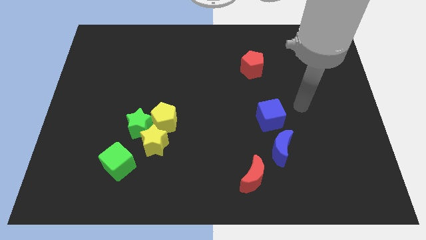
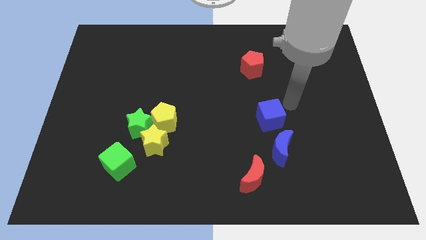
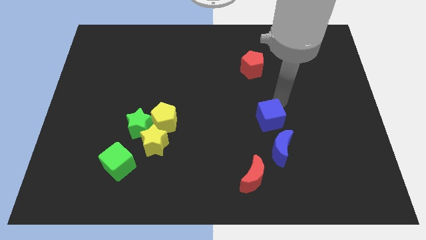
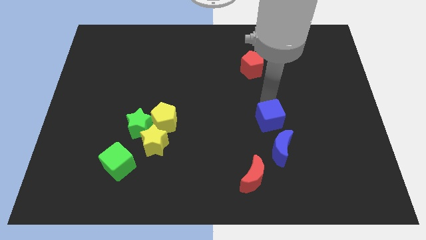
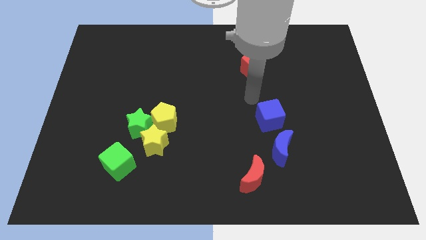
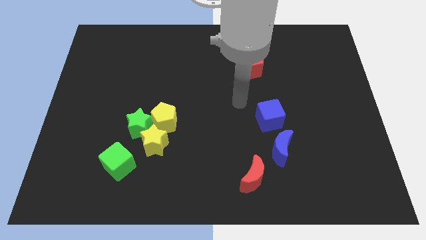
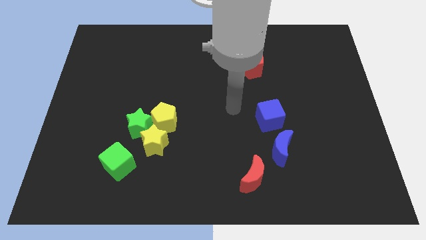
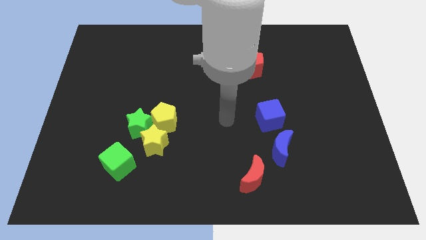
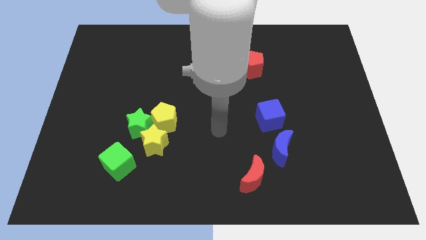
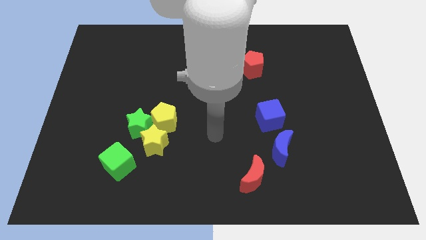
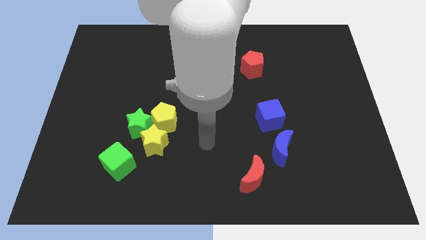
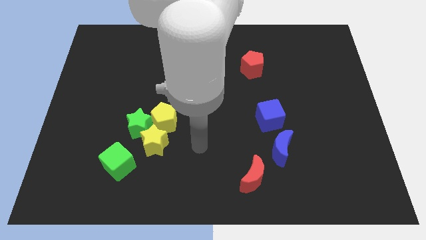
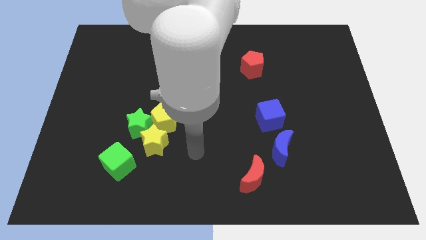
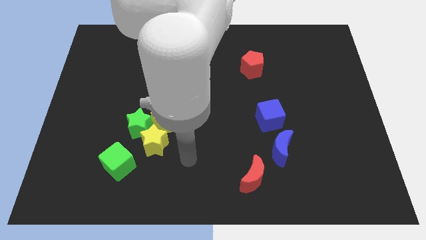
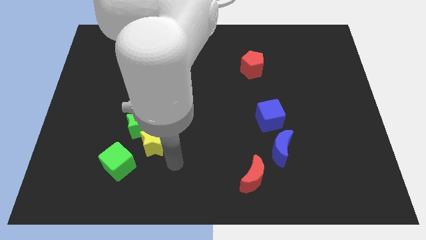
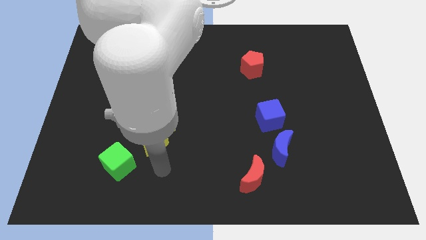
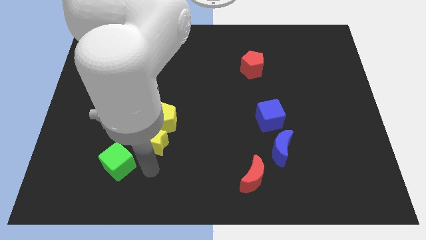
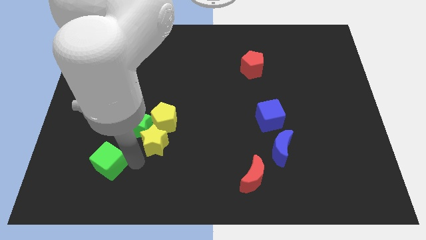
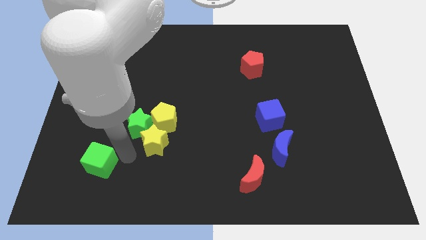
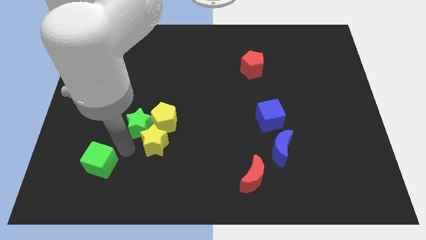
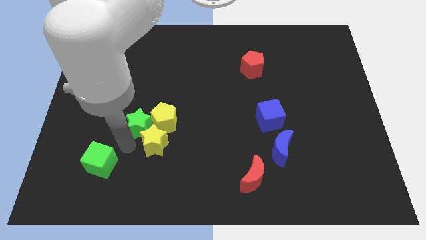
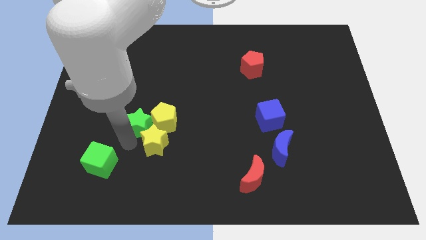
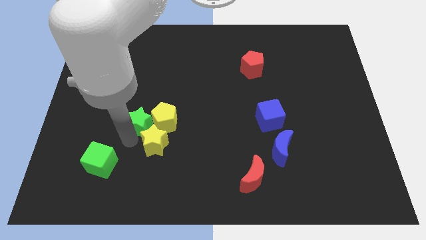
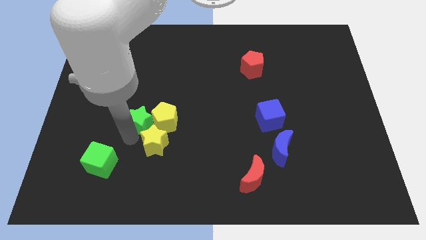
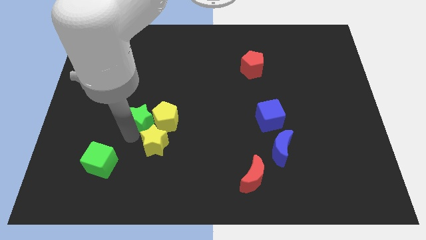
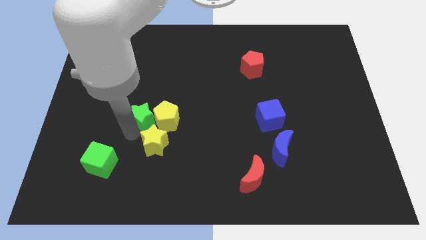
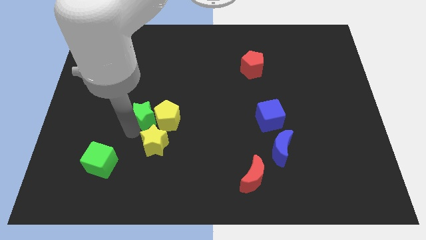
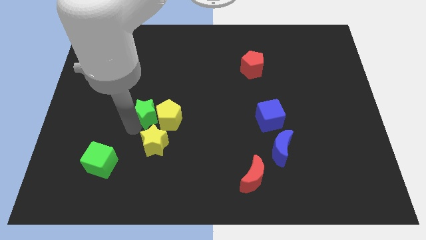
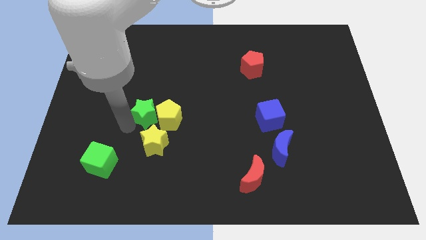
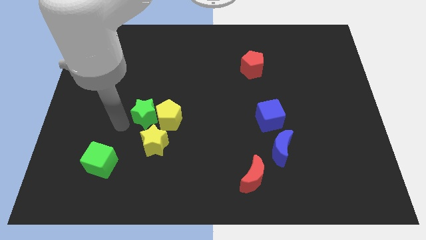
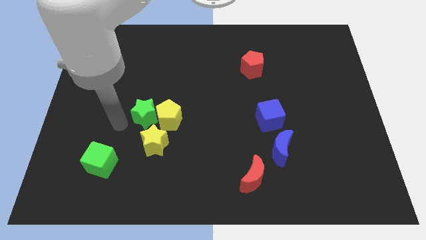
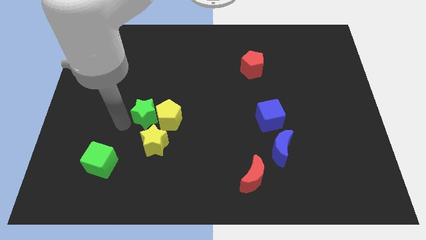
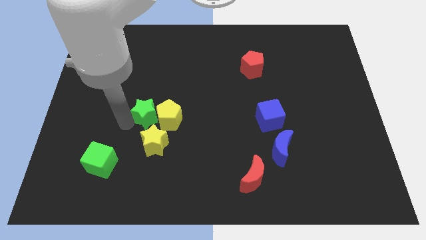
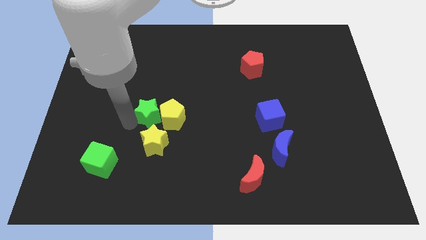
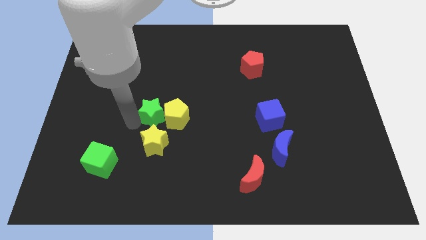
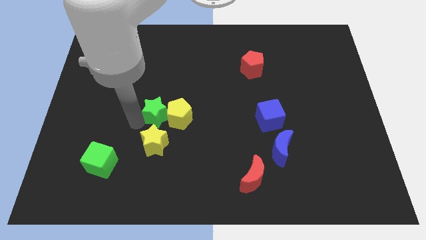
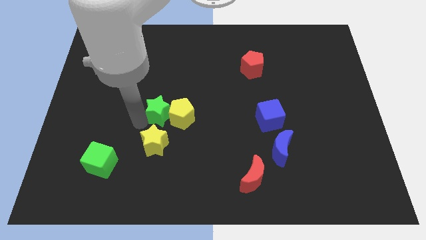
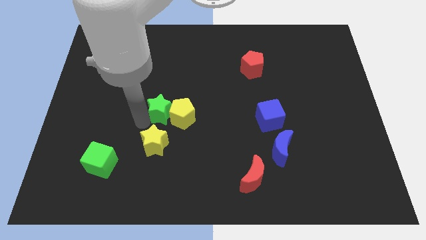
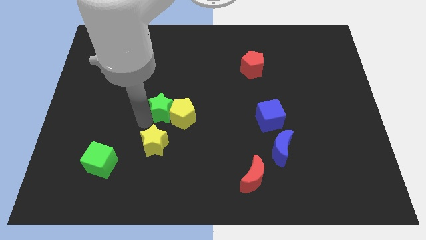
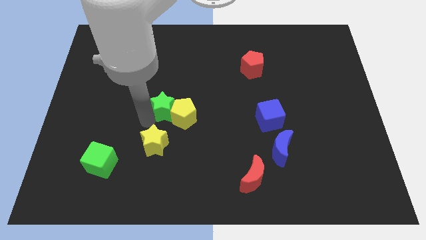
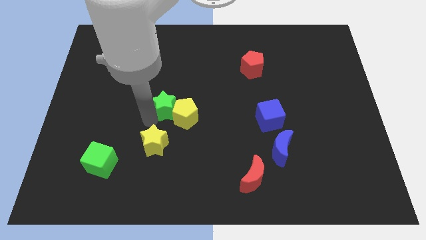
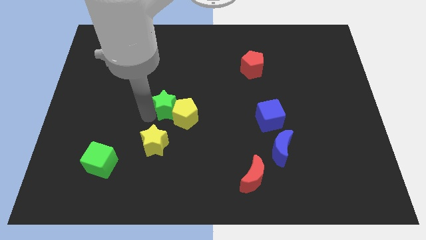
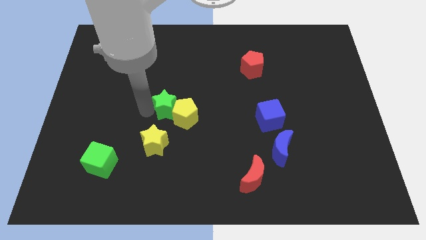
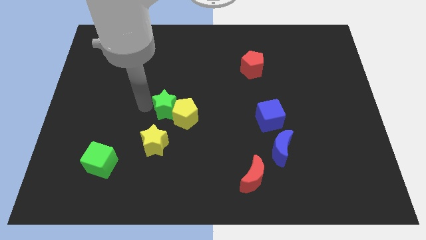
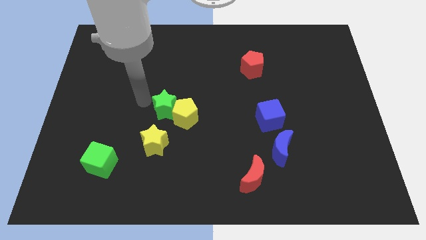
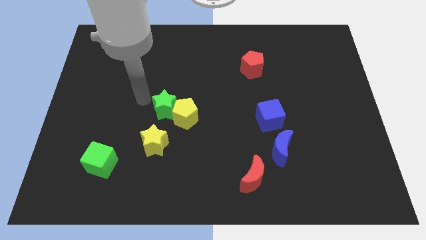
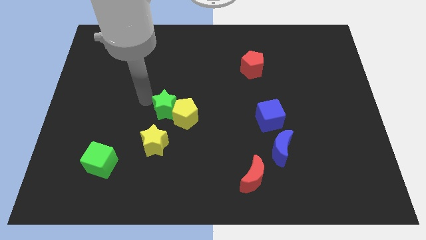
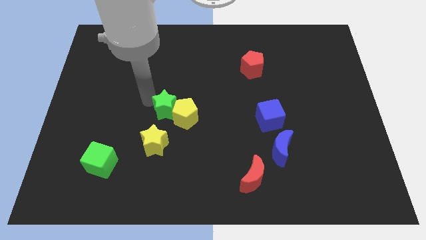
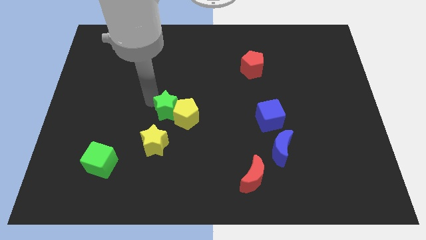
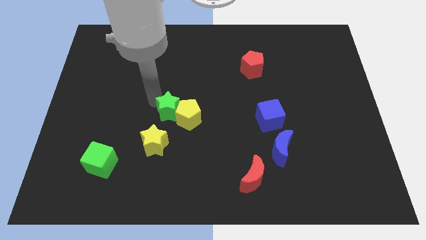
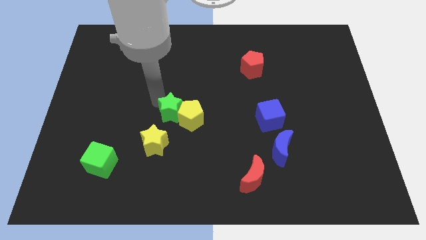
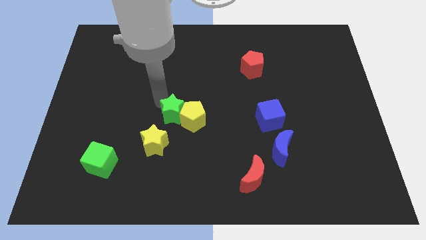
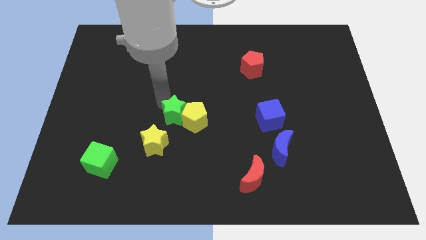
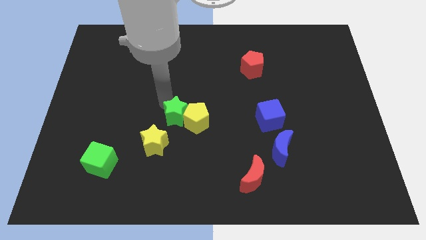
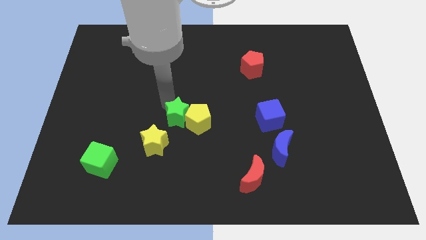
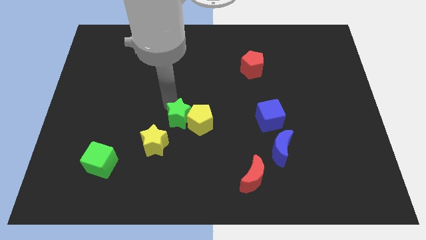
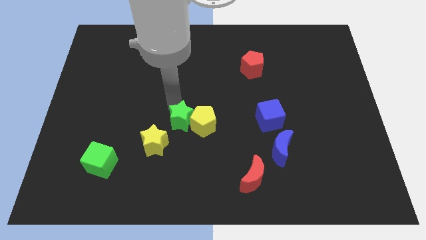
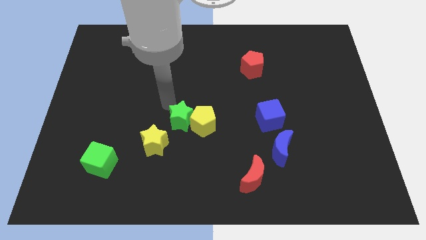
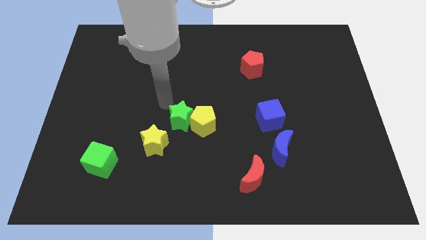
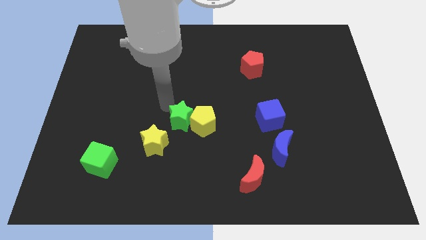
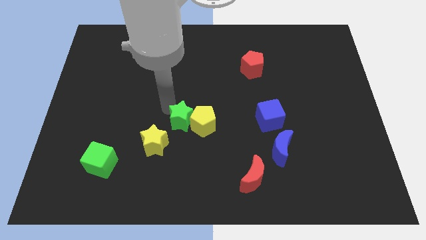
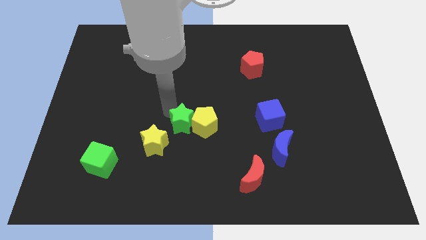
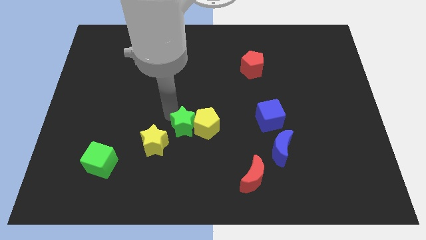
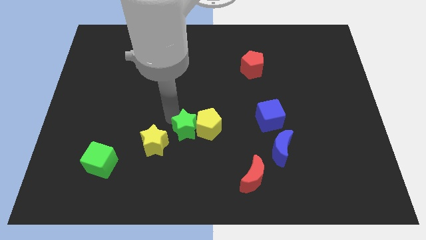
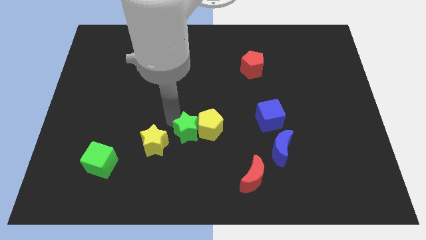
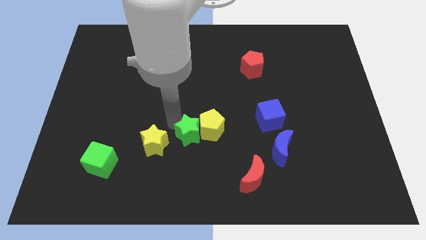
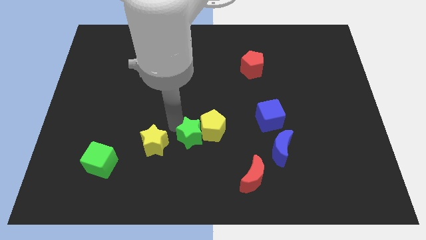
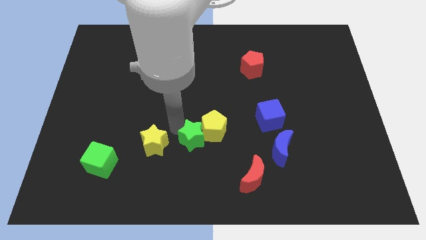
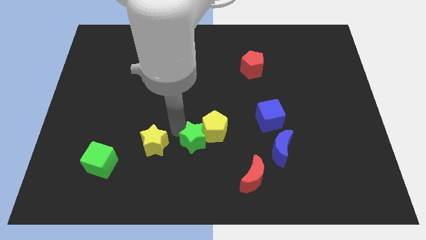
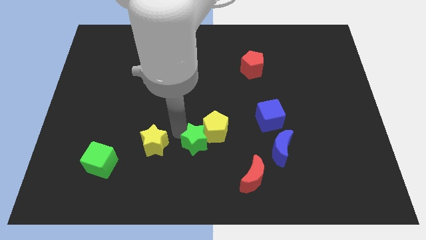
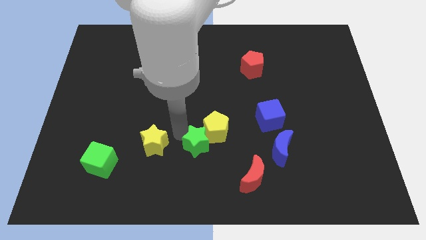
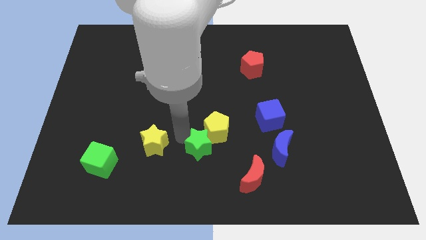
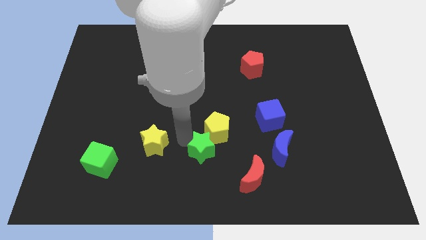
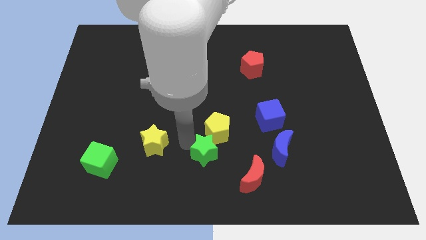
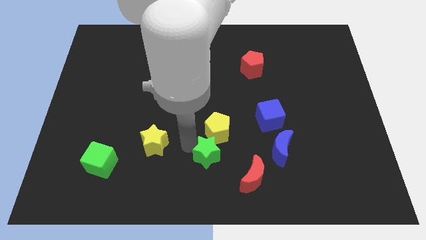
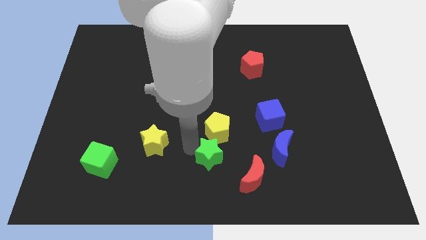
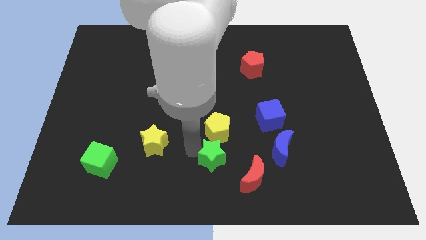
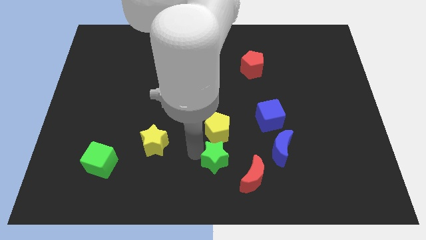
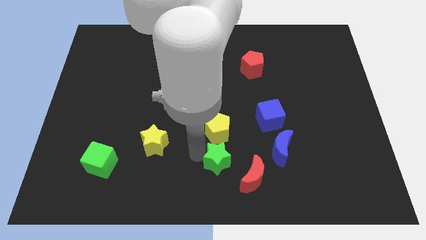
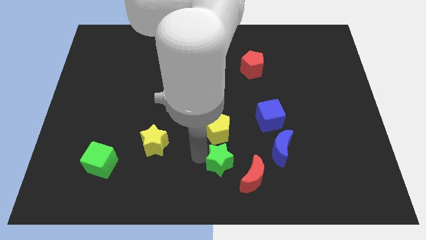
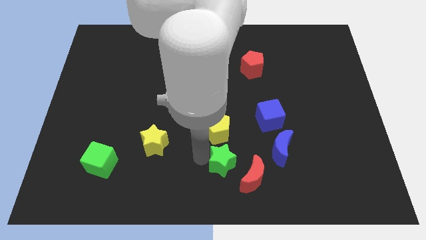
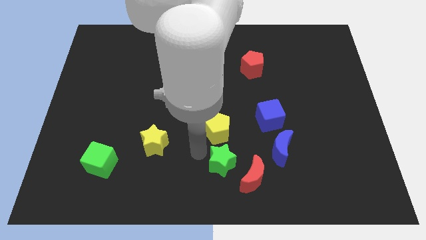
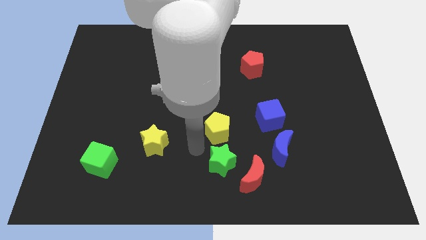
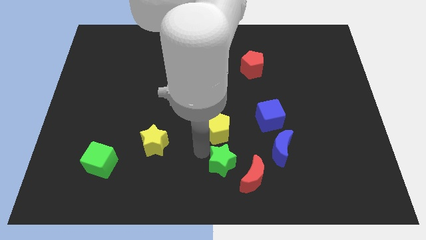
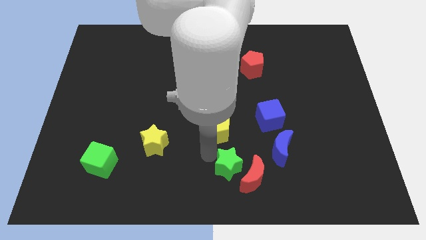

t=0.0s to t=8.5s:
push the green star close to the red moon
